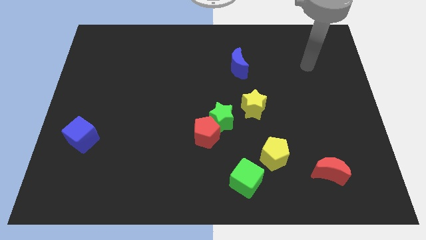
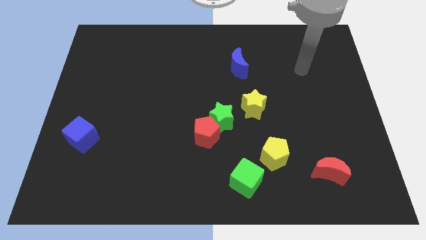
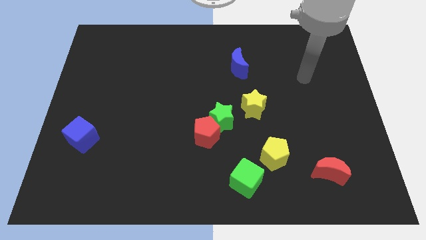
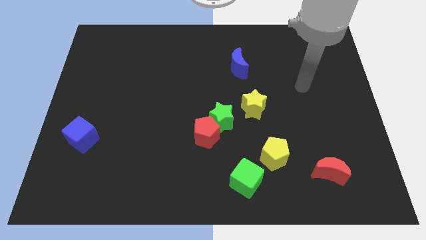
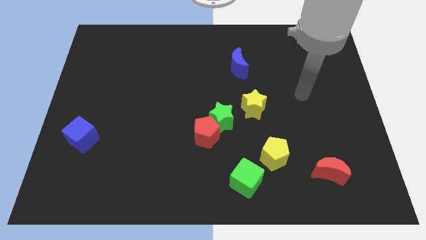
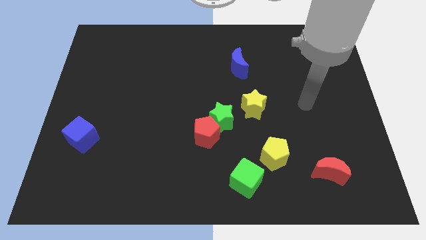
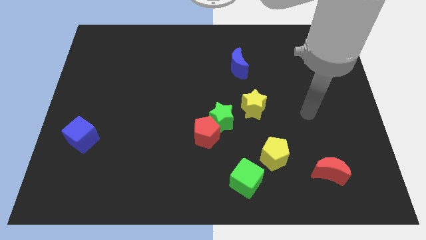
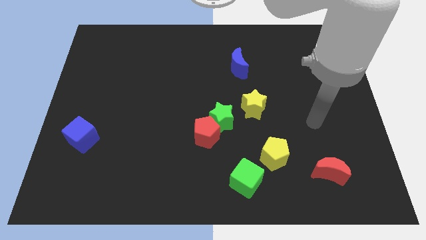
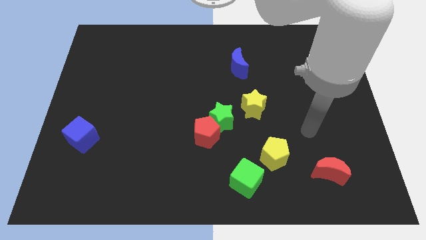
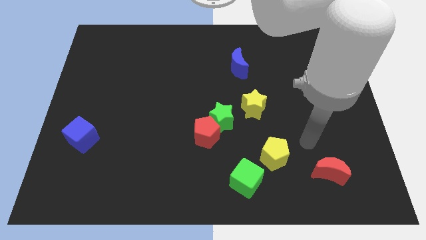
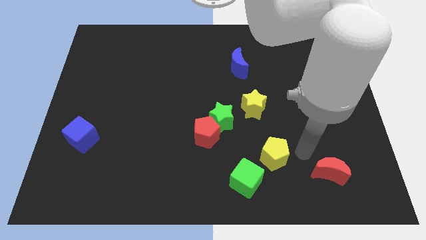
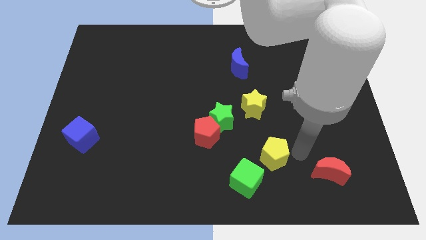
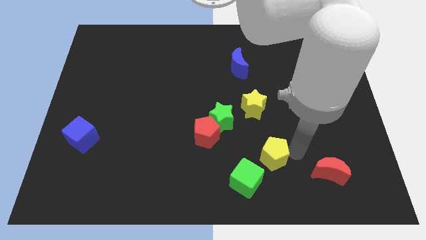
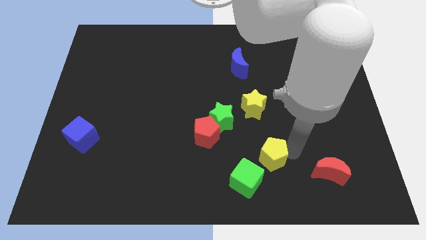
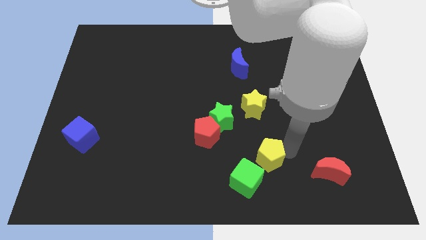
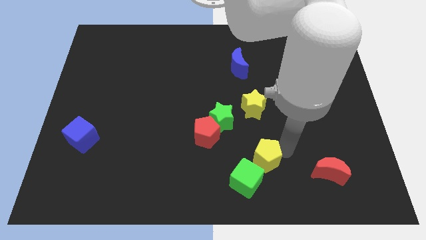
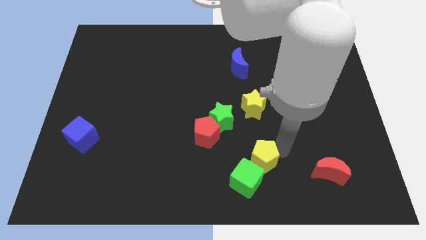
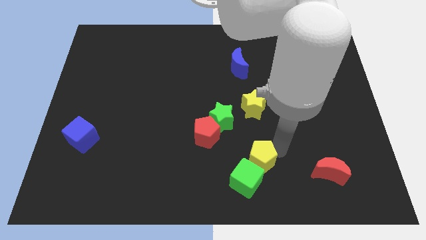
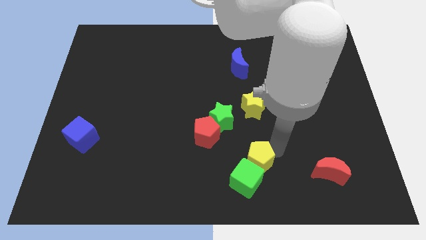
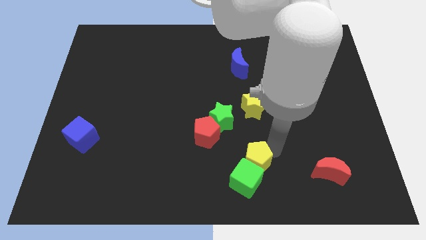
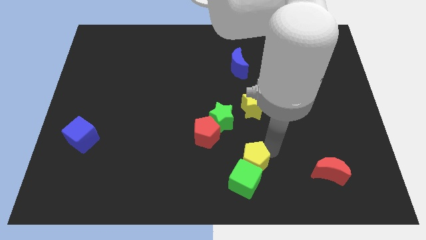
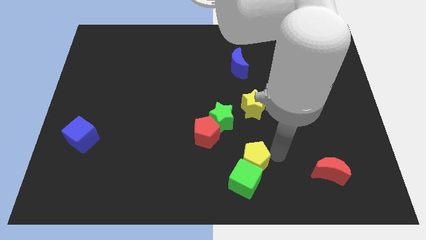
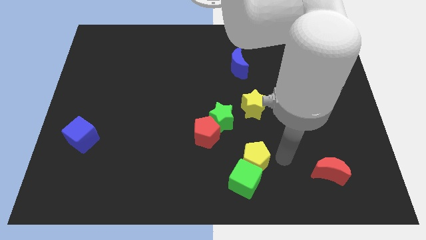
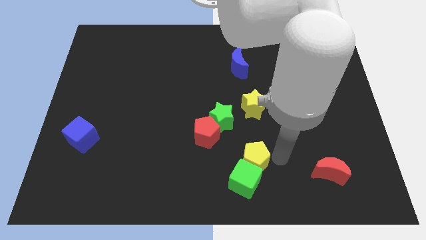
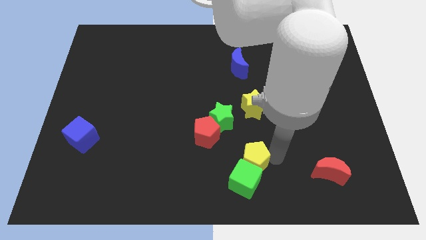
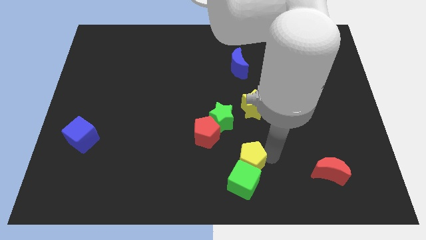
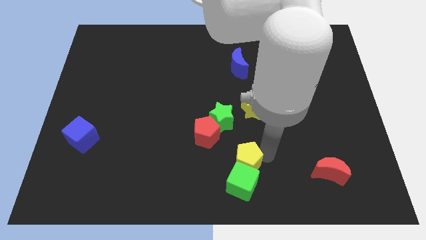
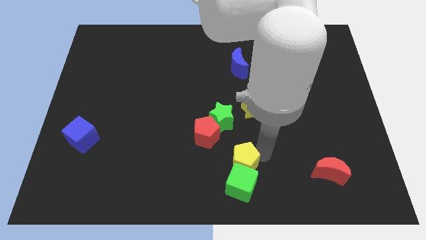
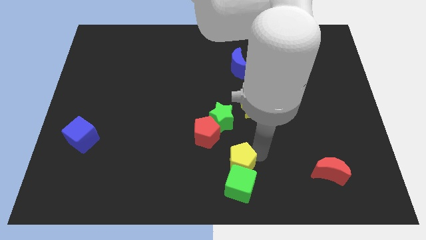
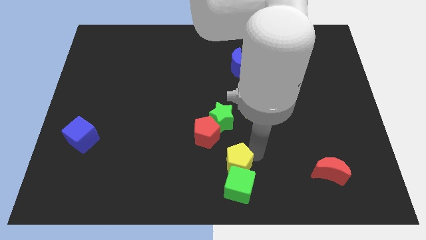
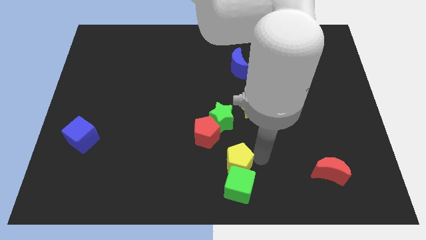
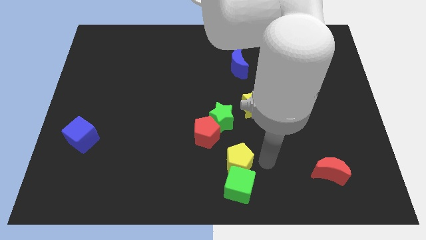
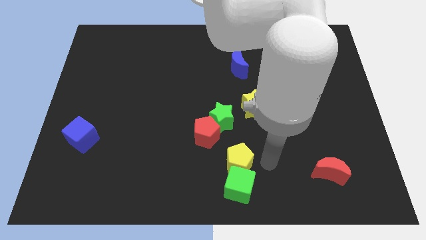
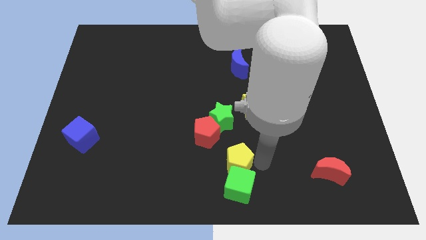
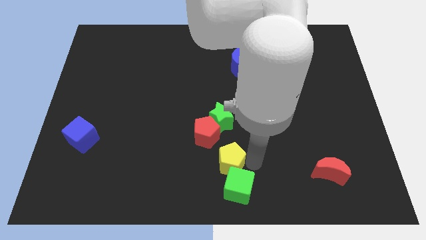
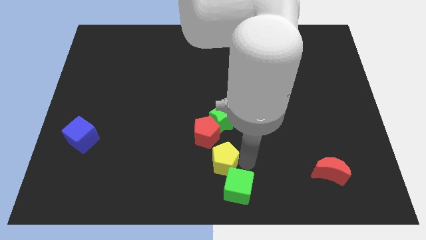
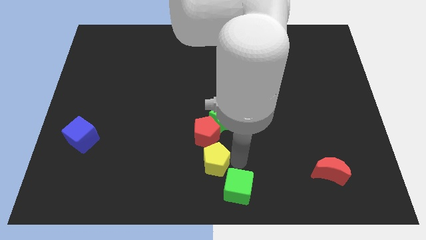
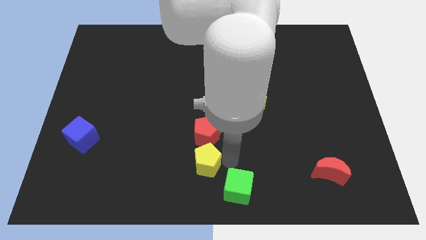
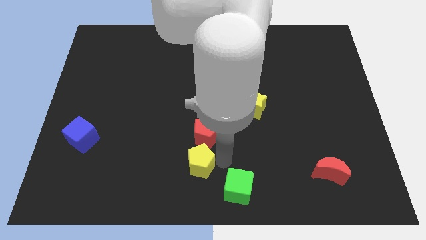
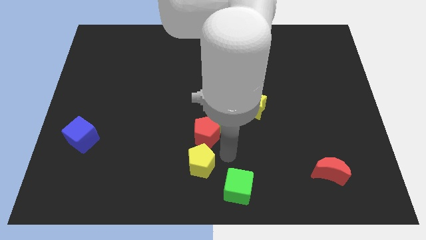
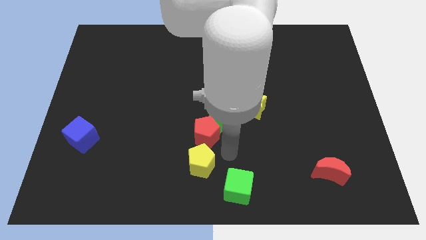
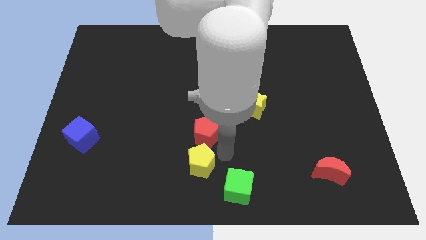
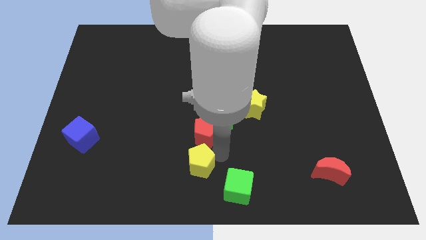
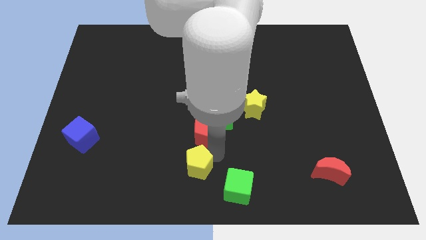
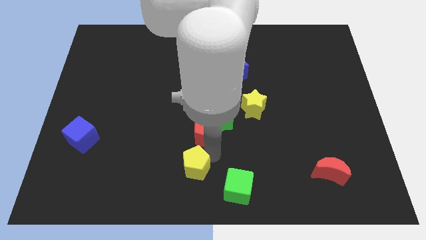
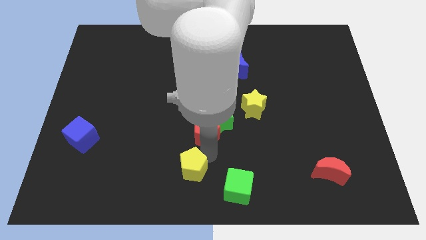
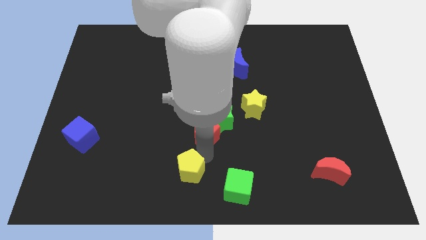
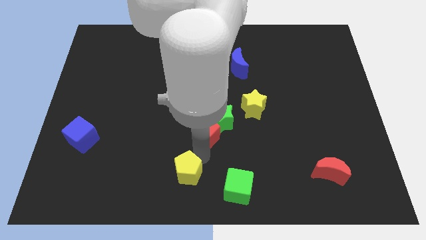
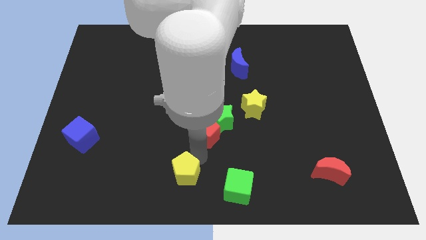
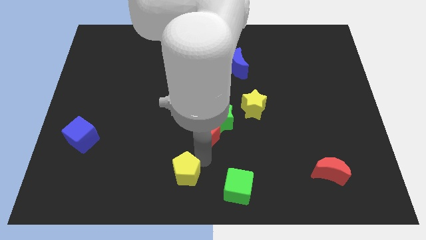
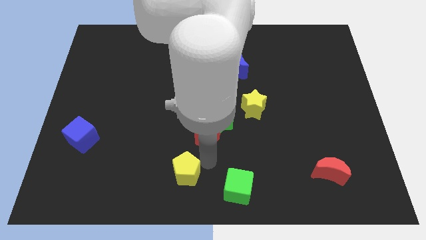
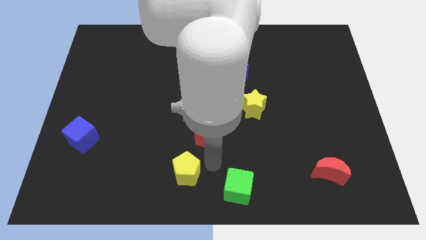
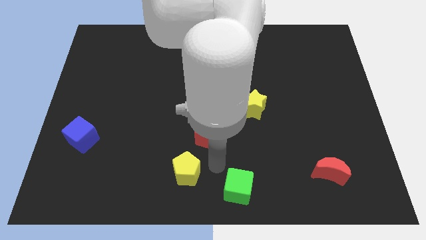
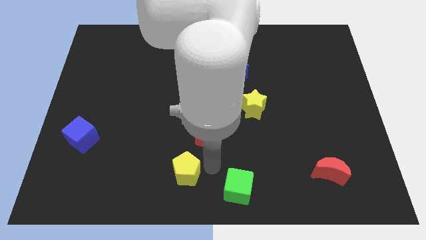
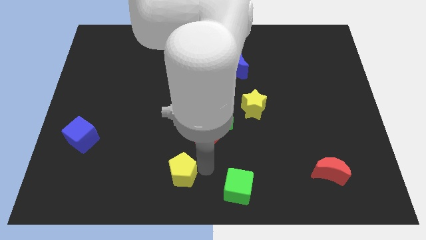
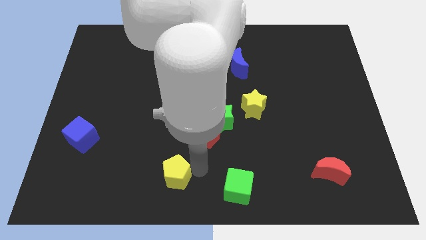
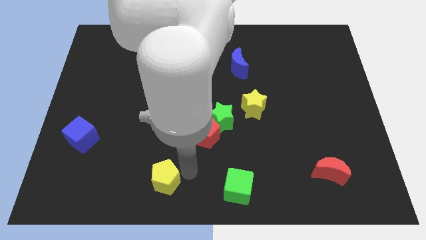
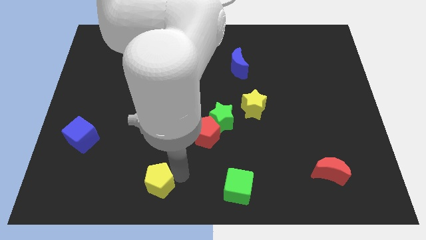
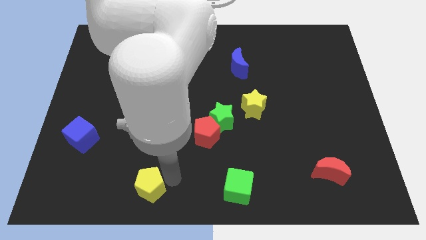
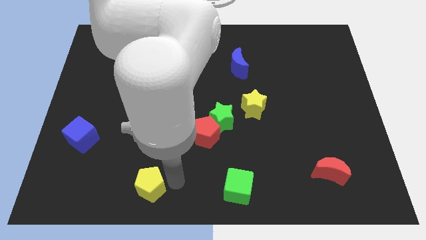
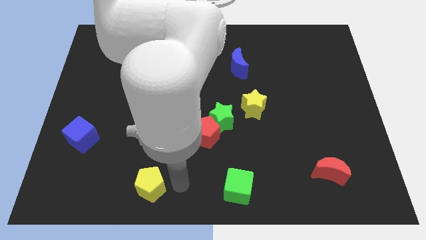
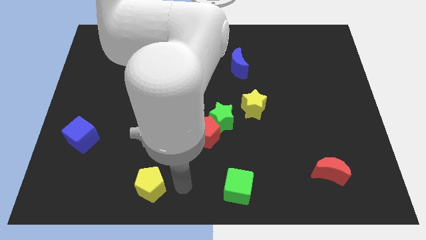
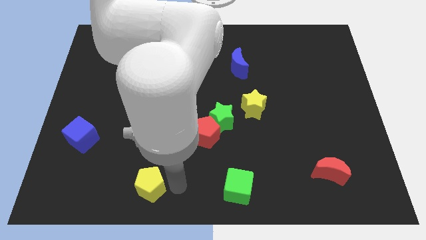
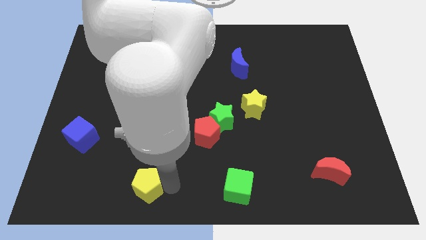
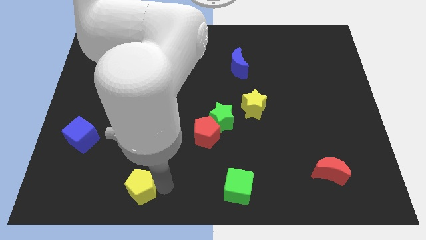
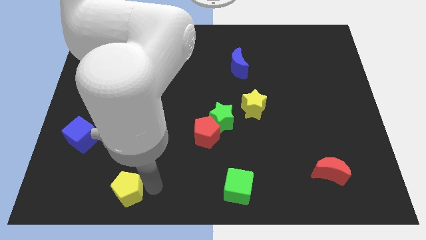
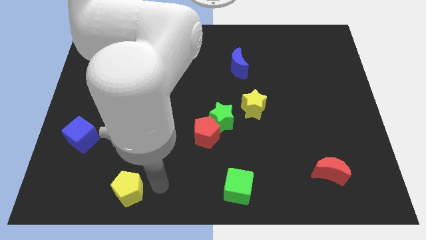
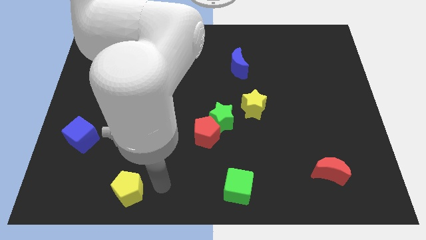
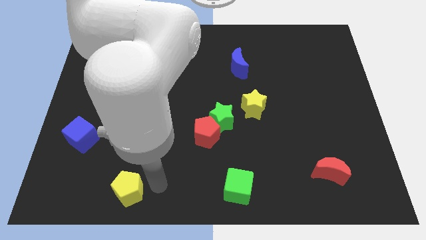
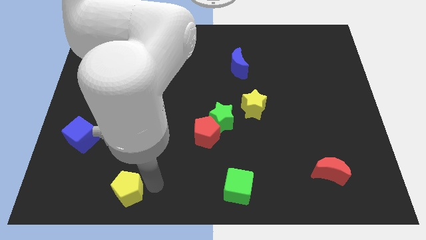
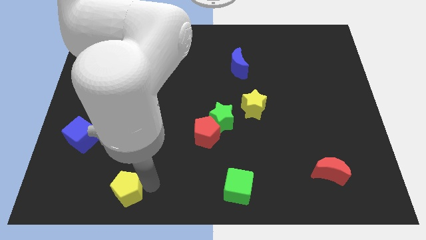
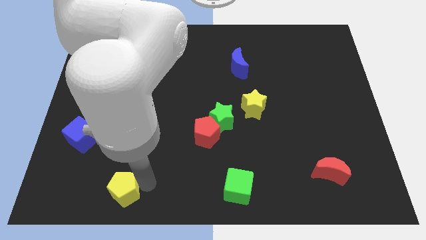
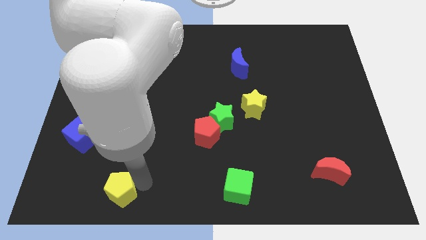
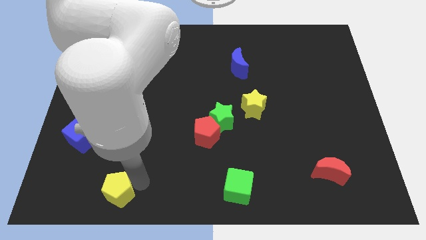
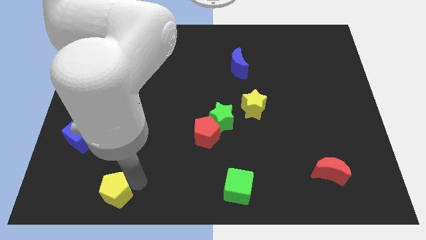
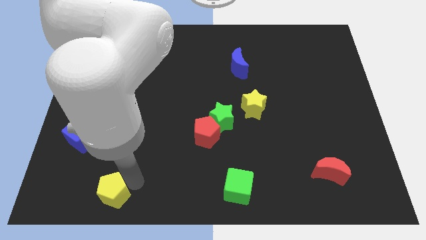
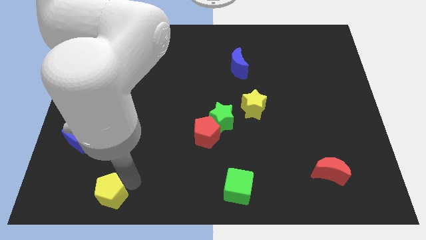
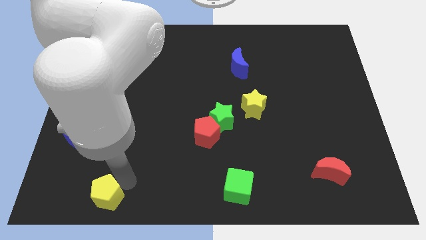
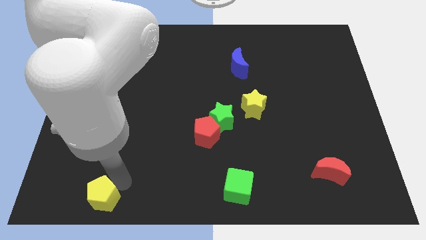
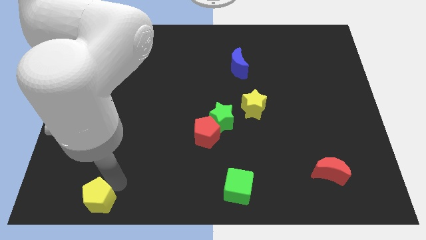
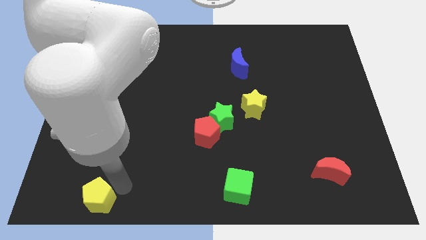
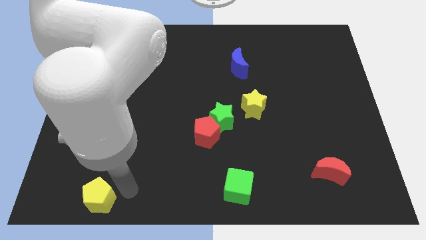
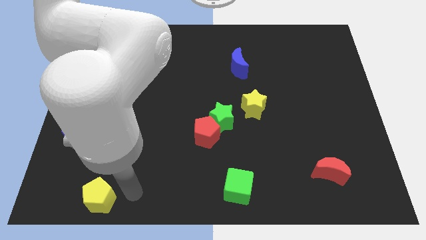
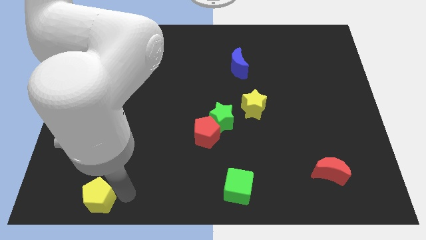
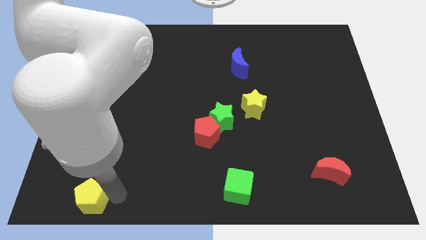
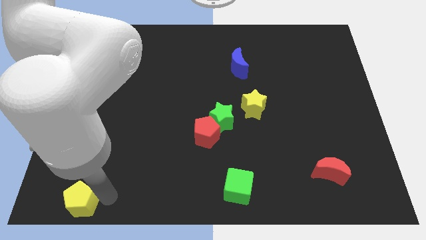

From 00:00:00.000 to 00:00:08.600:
move the yellow pentagon to the bottom left
